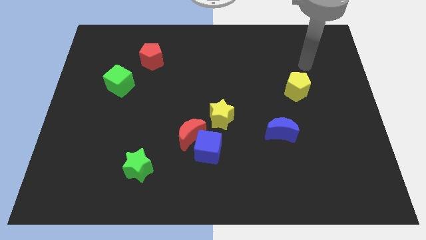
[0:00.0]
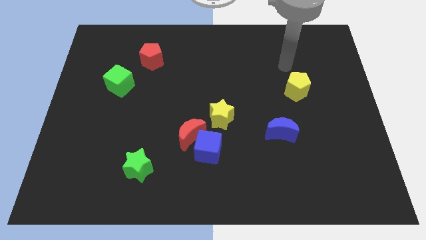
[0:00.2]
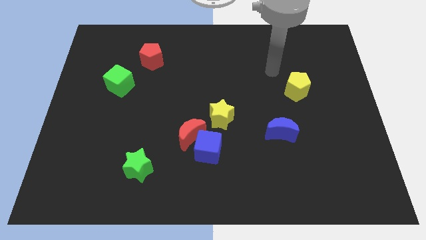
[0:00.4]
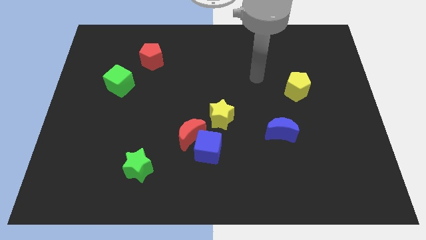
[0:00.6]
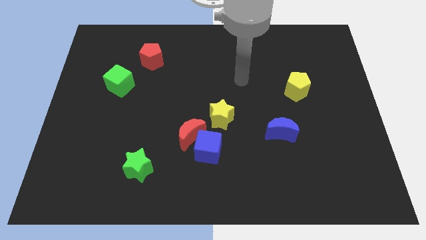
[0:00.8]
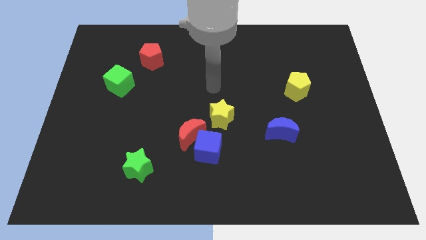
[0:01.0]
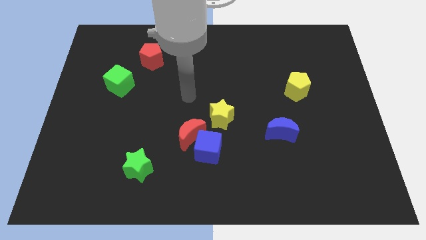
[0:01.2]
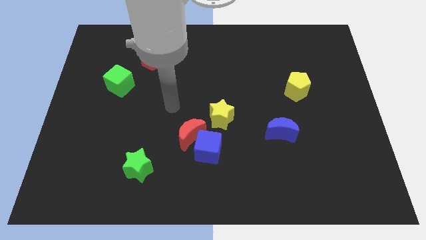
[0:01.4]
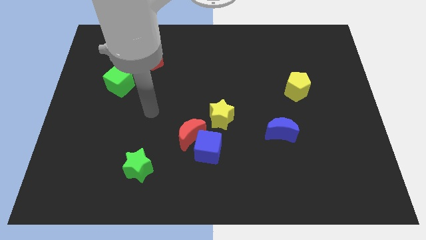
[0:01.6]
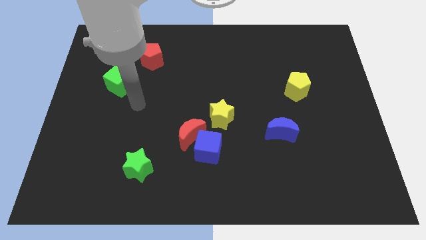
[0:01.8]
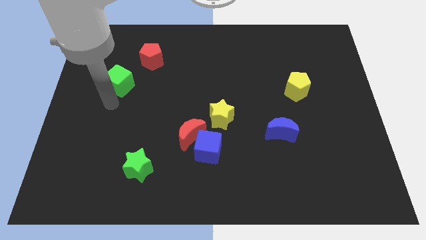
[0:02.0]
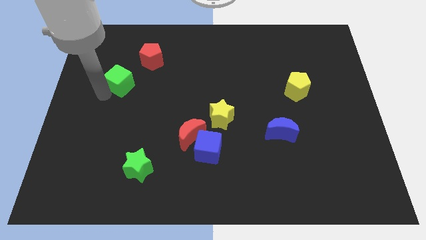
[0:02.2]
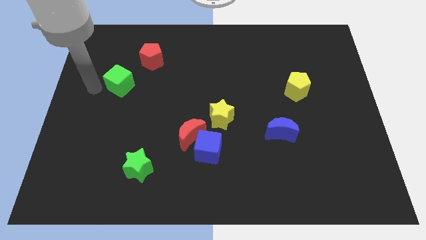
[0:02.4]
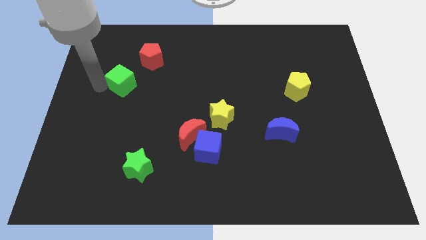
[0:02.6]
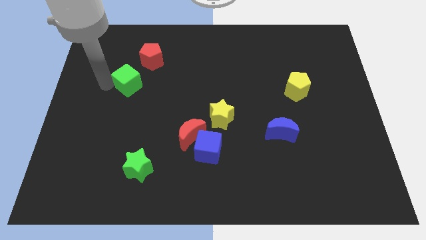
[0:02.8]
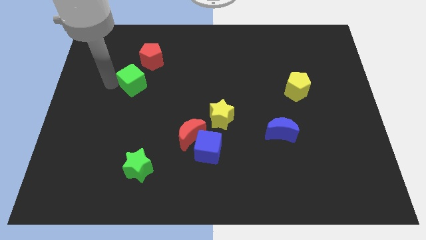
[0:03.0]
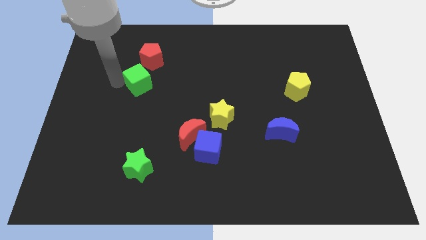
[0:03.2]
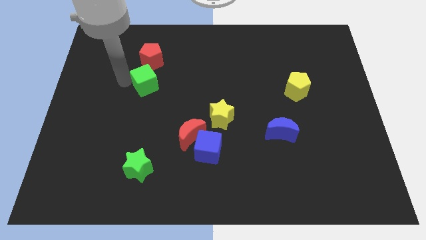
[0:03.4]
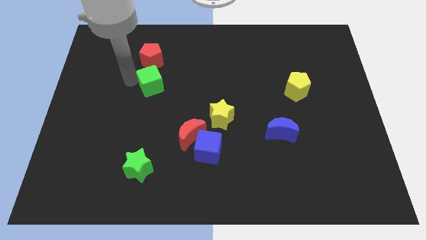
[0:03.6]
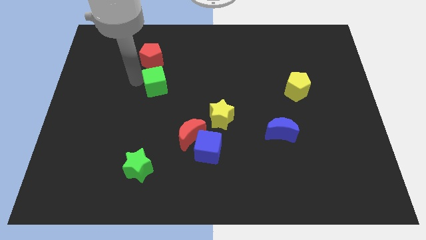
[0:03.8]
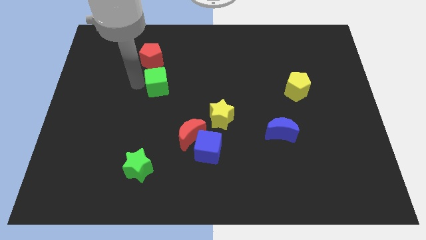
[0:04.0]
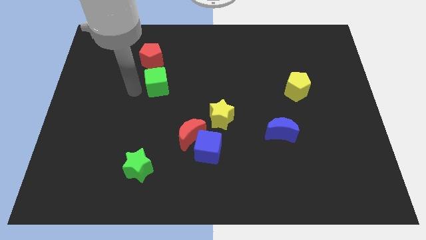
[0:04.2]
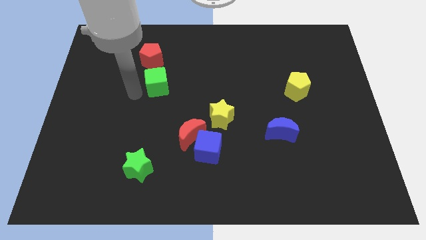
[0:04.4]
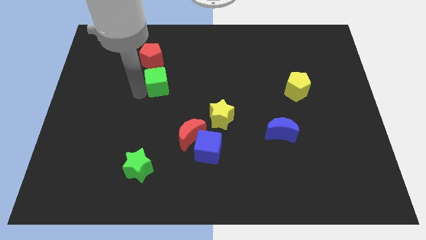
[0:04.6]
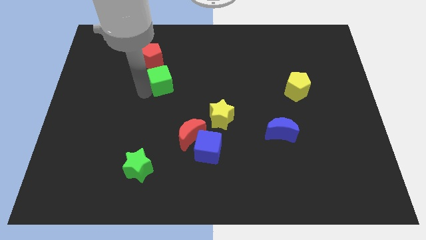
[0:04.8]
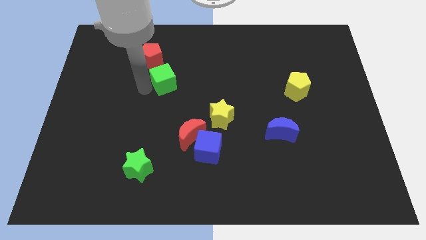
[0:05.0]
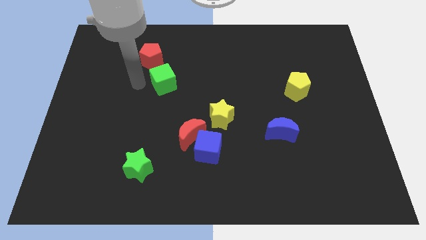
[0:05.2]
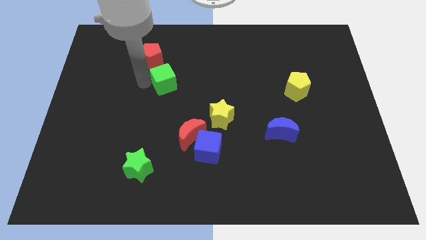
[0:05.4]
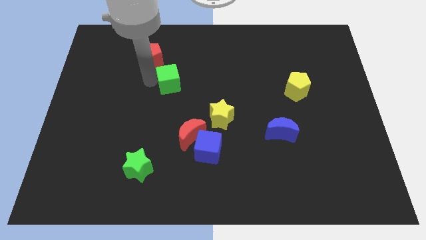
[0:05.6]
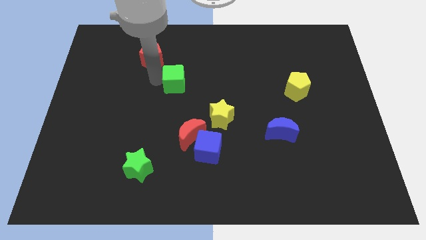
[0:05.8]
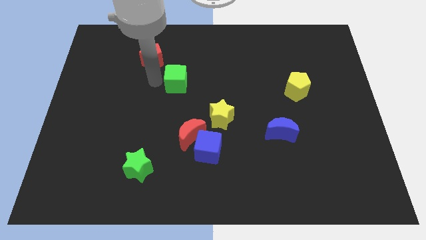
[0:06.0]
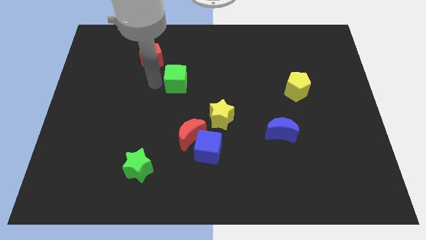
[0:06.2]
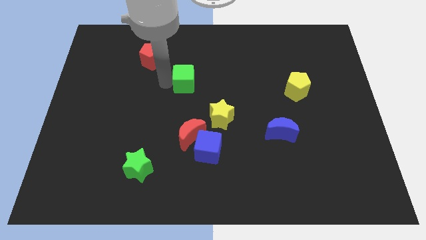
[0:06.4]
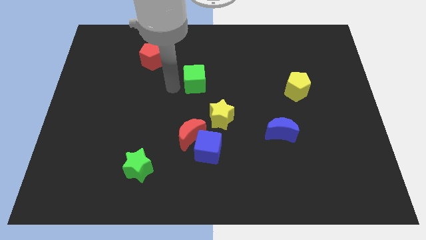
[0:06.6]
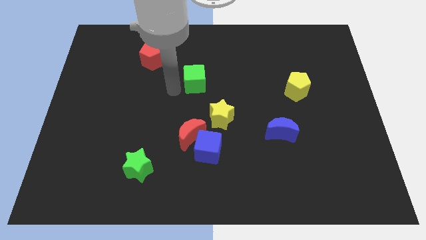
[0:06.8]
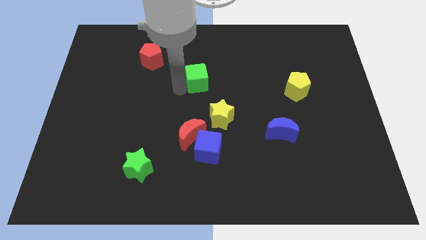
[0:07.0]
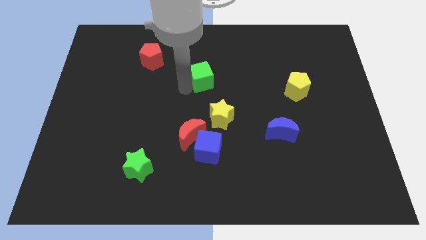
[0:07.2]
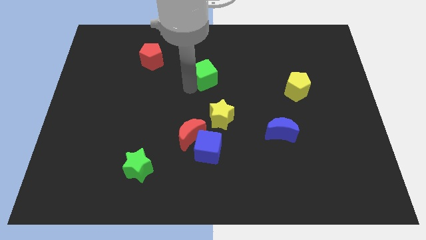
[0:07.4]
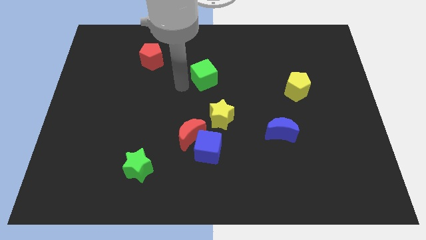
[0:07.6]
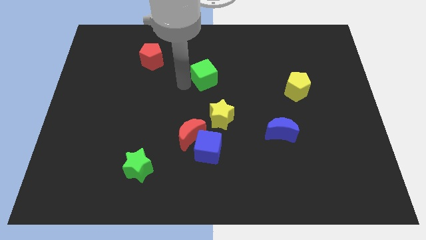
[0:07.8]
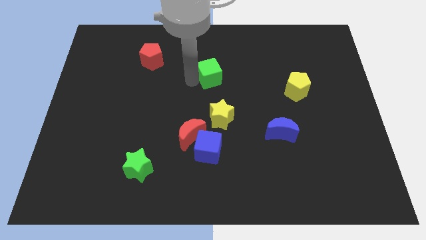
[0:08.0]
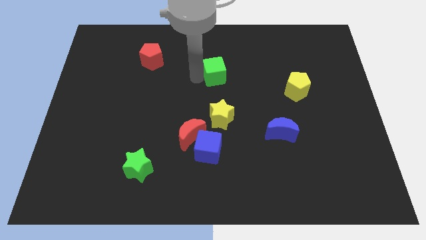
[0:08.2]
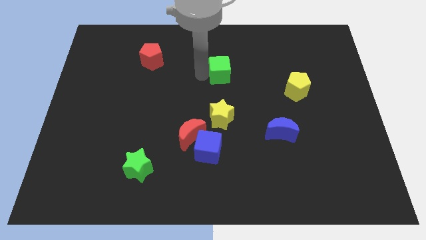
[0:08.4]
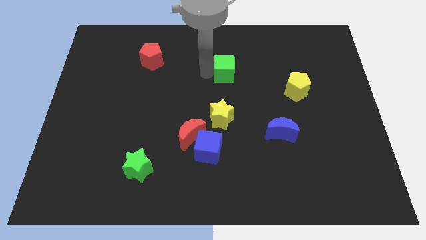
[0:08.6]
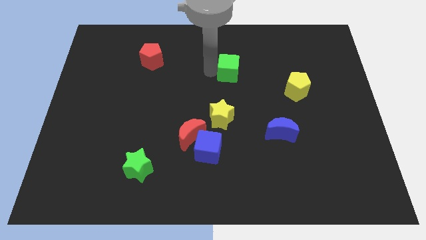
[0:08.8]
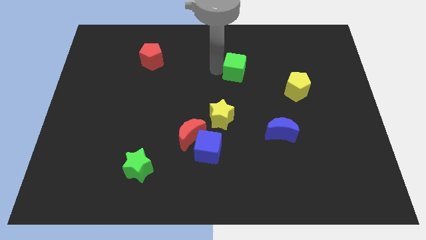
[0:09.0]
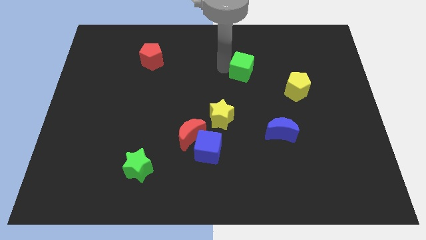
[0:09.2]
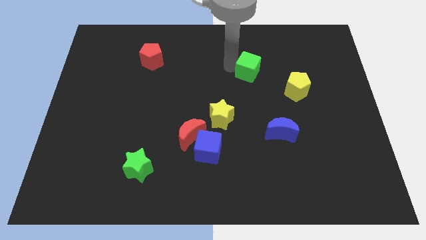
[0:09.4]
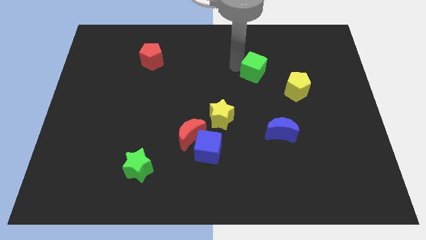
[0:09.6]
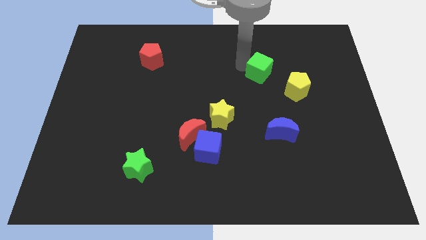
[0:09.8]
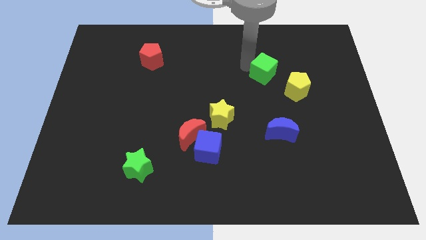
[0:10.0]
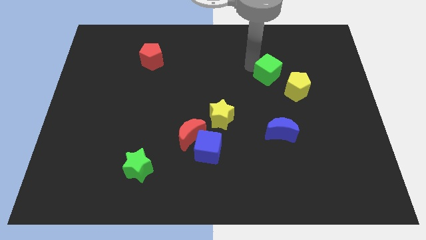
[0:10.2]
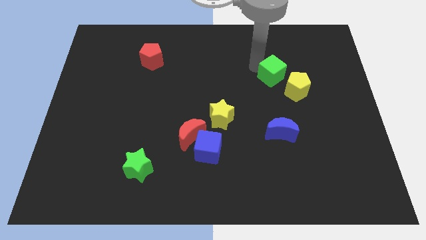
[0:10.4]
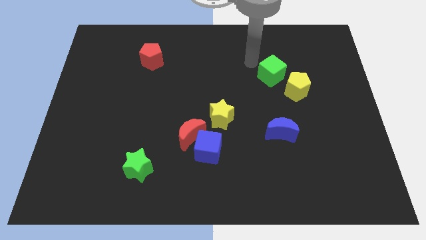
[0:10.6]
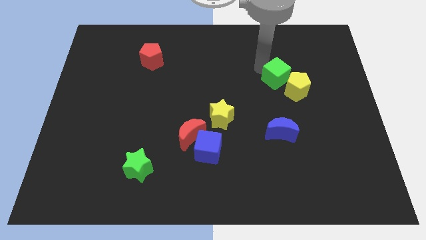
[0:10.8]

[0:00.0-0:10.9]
put the green cube towards the yellow pentagon

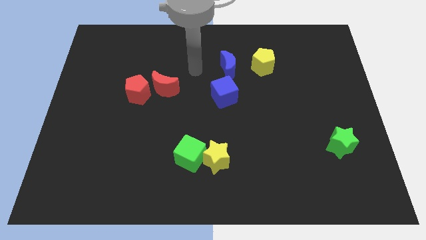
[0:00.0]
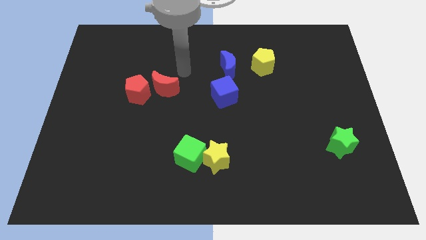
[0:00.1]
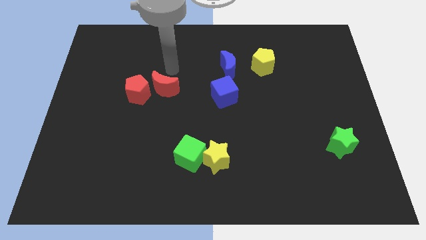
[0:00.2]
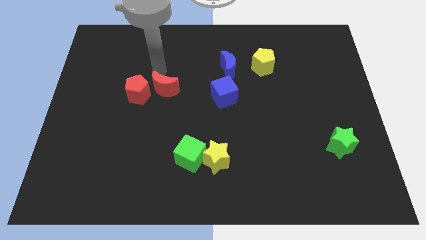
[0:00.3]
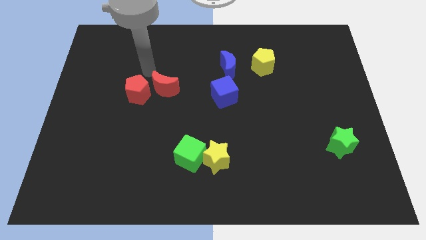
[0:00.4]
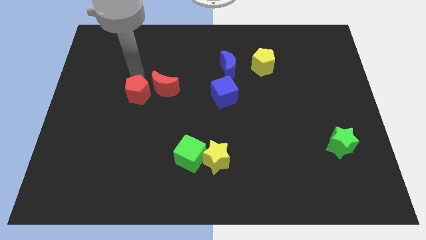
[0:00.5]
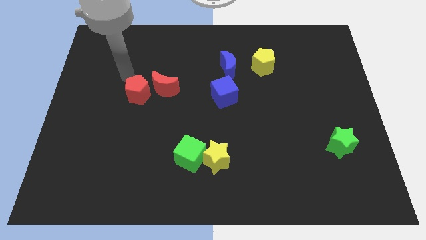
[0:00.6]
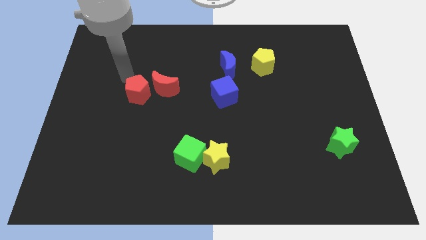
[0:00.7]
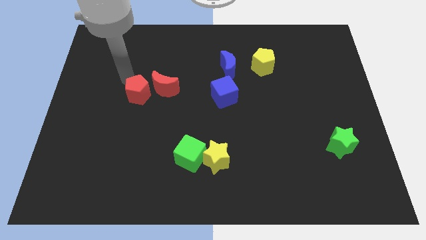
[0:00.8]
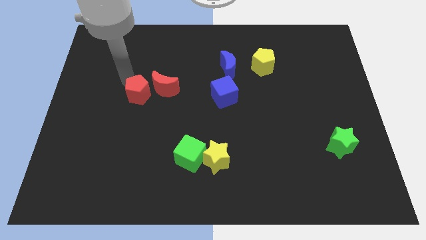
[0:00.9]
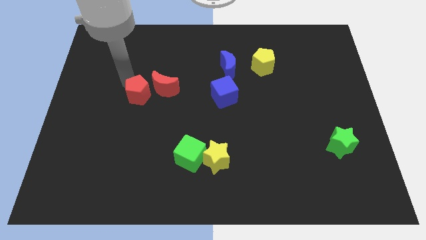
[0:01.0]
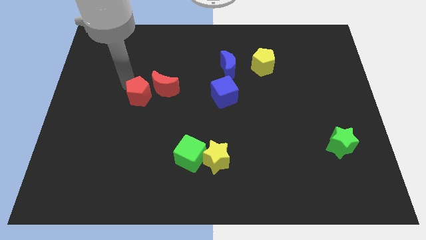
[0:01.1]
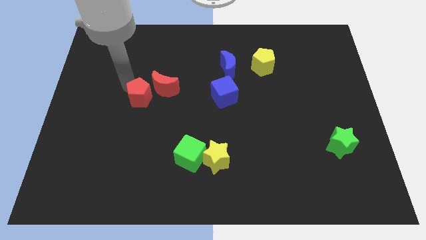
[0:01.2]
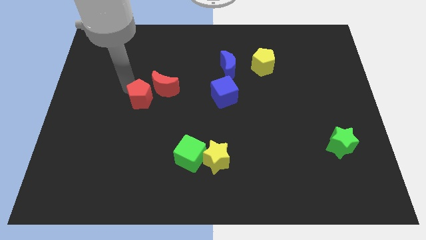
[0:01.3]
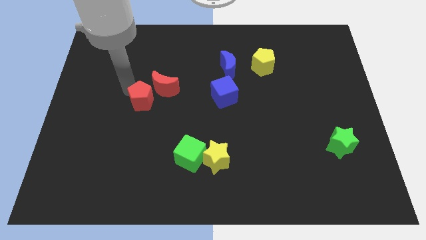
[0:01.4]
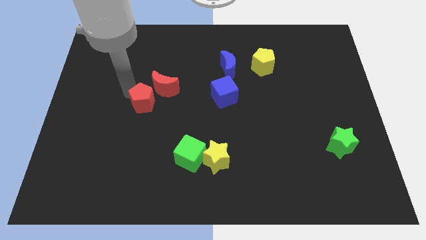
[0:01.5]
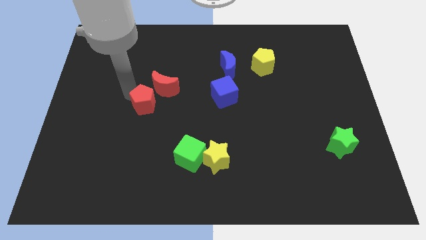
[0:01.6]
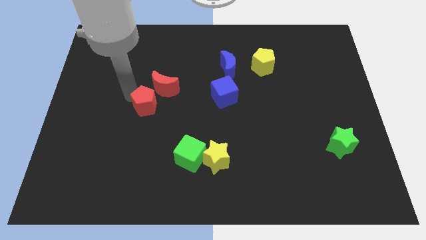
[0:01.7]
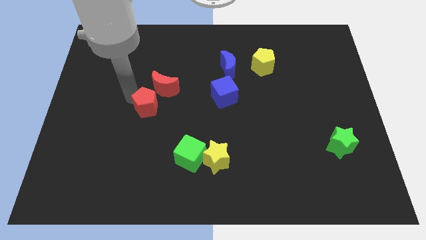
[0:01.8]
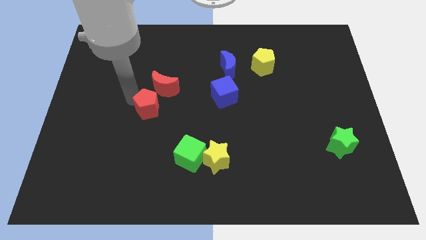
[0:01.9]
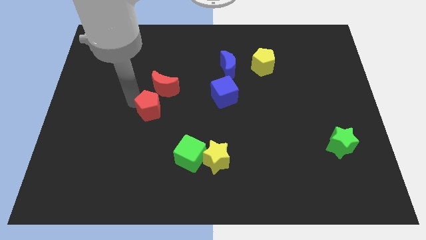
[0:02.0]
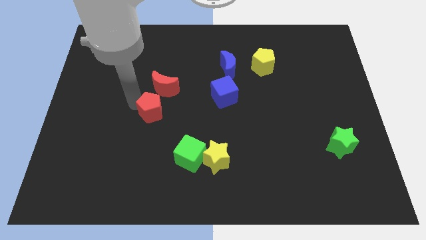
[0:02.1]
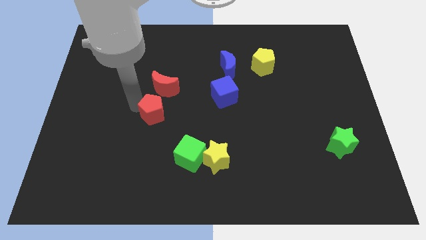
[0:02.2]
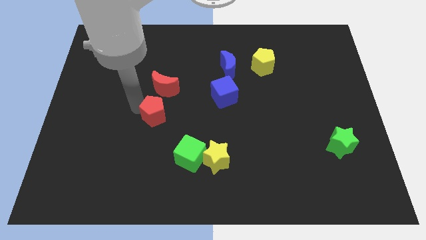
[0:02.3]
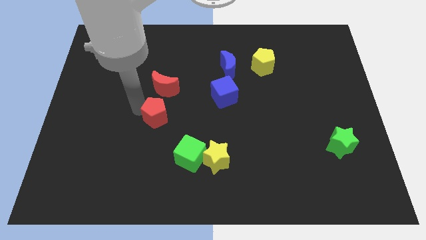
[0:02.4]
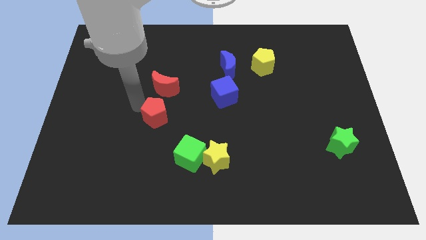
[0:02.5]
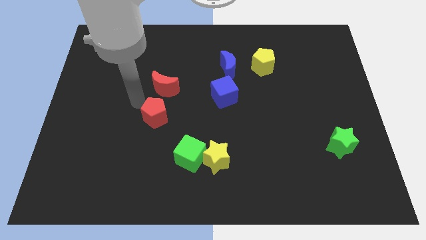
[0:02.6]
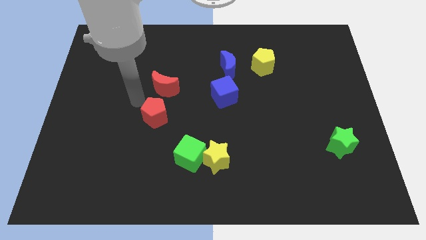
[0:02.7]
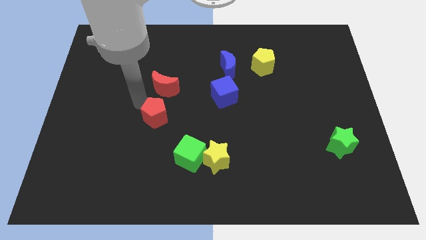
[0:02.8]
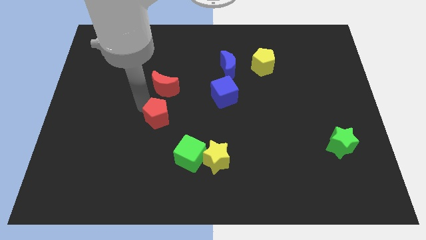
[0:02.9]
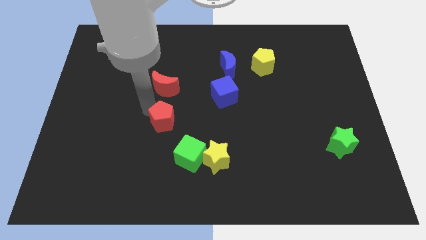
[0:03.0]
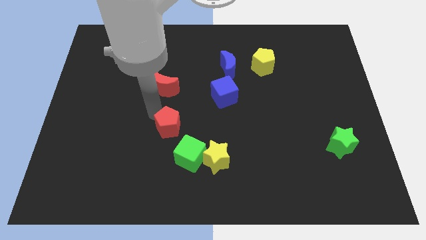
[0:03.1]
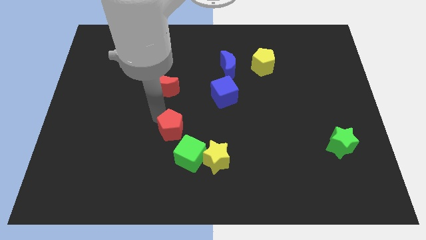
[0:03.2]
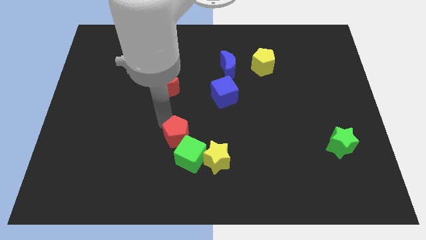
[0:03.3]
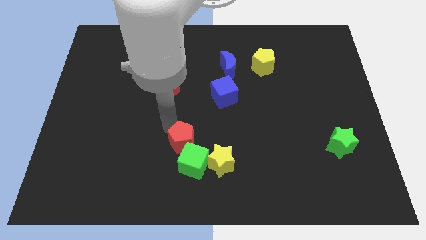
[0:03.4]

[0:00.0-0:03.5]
slide the red pentagon towards the green cube
